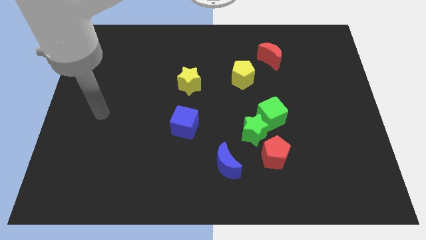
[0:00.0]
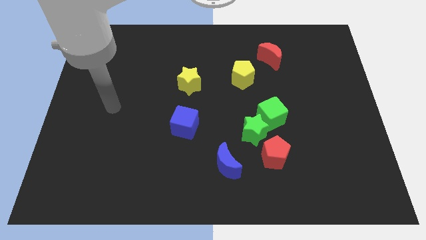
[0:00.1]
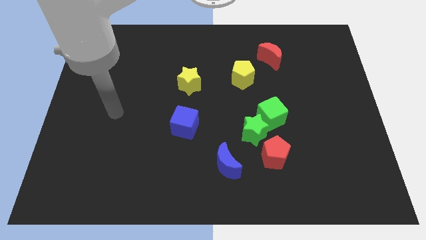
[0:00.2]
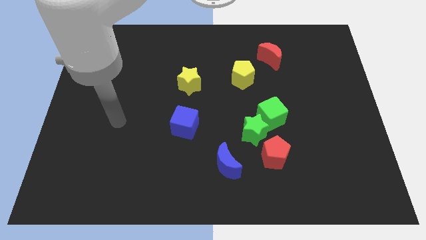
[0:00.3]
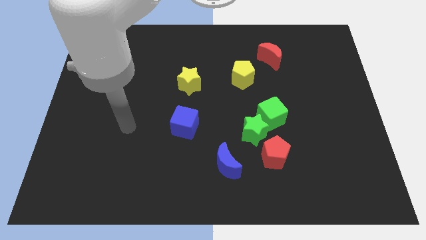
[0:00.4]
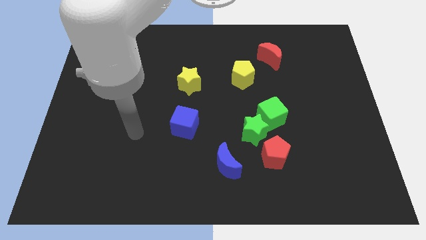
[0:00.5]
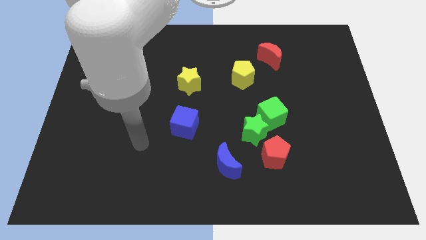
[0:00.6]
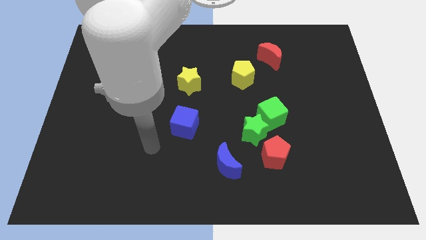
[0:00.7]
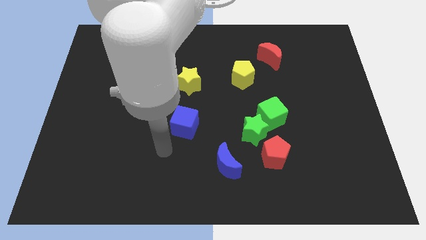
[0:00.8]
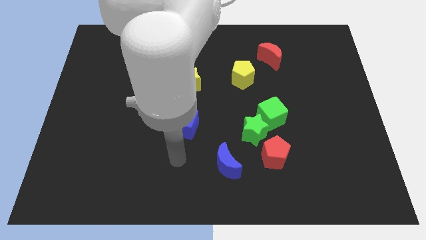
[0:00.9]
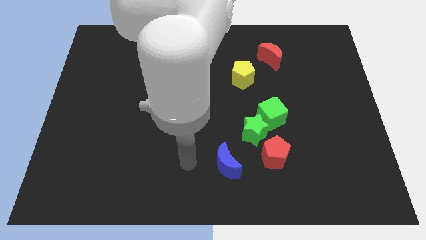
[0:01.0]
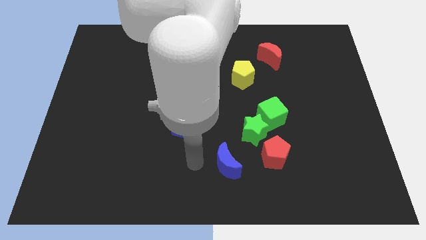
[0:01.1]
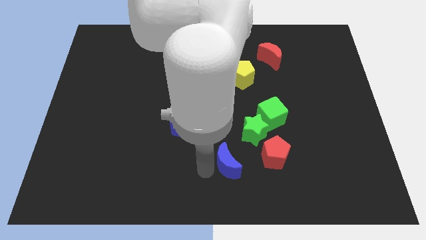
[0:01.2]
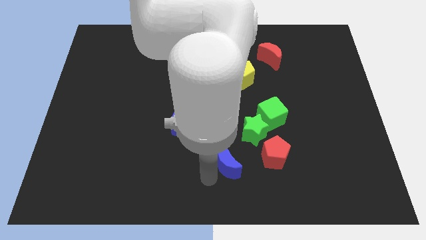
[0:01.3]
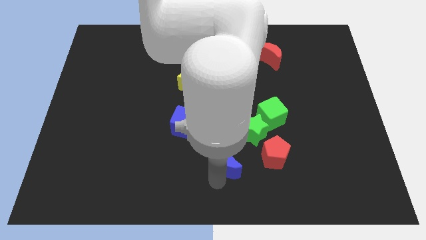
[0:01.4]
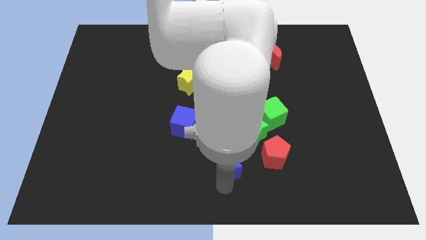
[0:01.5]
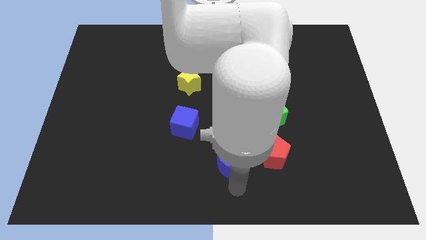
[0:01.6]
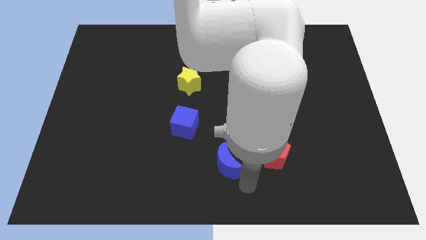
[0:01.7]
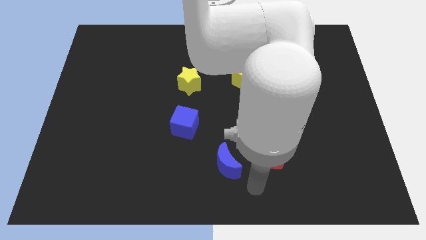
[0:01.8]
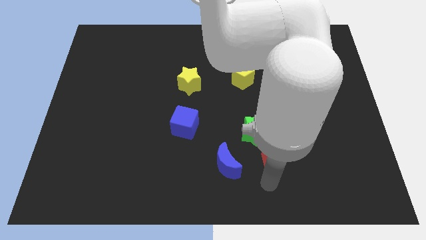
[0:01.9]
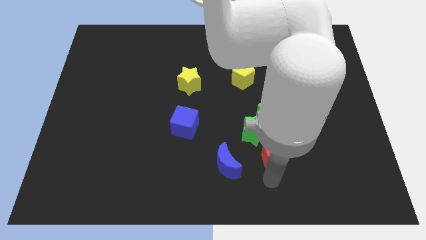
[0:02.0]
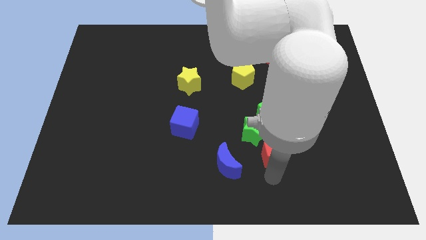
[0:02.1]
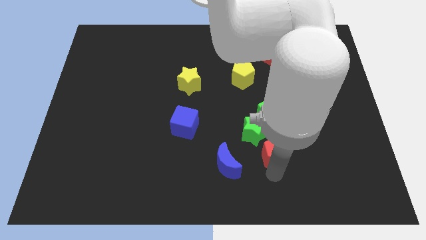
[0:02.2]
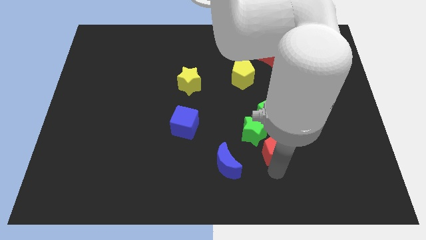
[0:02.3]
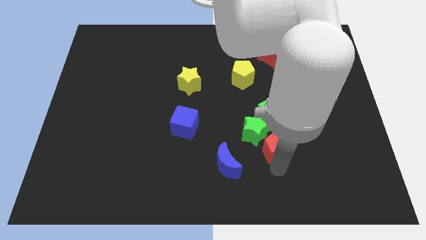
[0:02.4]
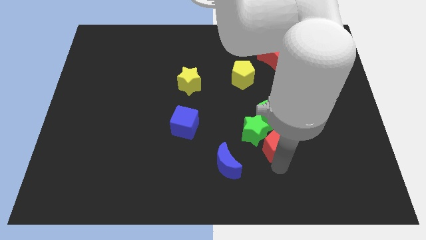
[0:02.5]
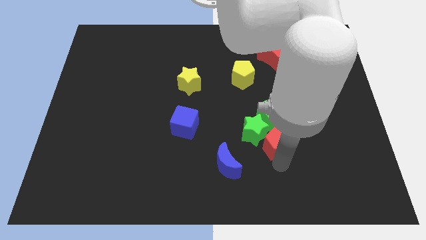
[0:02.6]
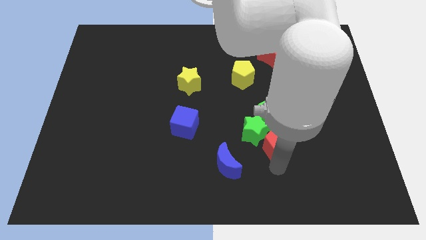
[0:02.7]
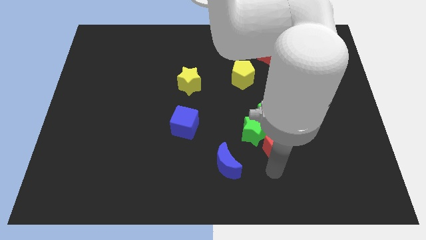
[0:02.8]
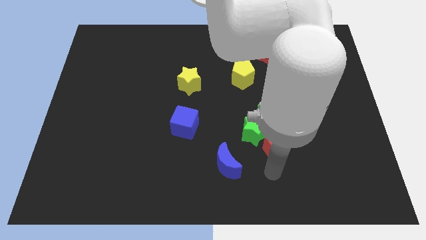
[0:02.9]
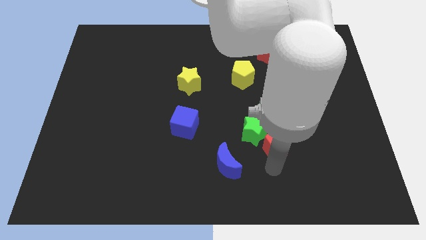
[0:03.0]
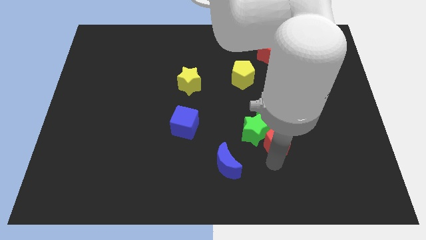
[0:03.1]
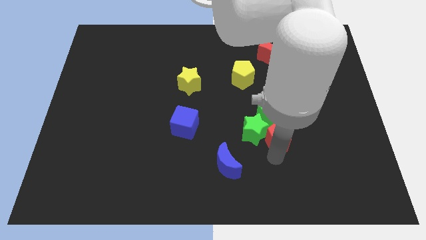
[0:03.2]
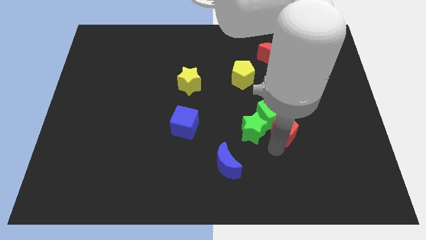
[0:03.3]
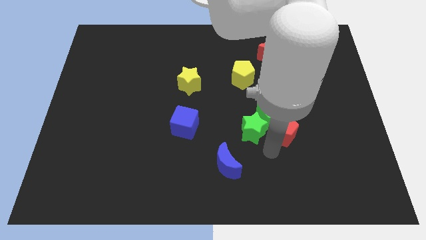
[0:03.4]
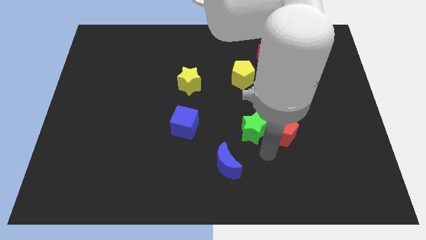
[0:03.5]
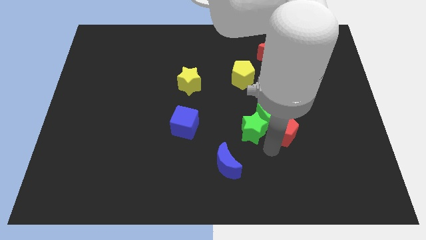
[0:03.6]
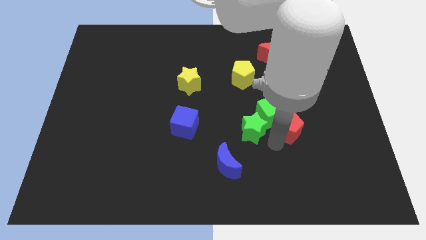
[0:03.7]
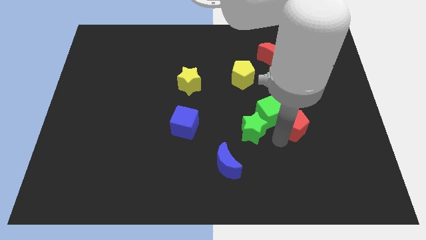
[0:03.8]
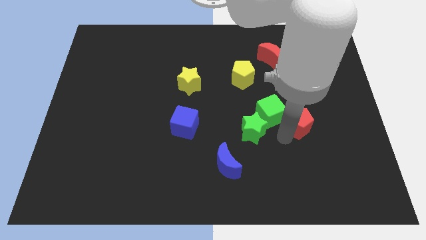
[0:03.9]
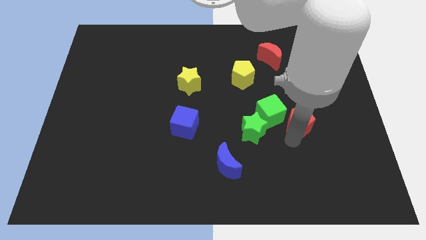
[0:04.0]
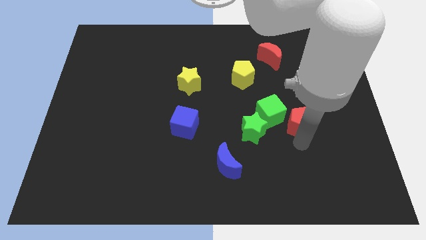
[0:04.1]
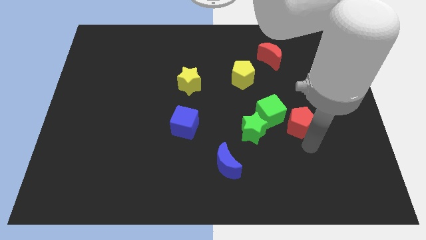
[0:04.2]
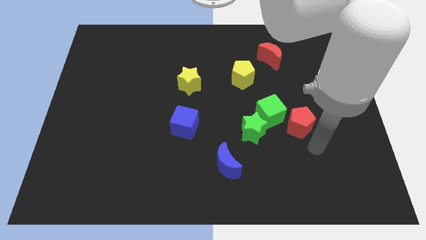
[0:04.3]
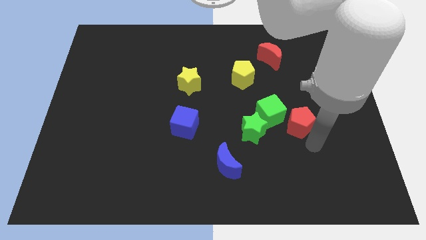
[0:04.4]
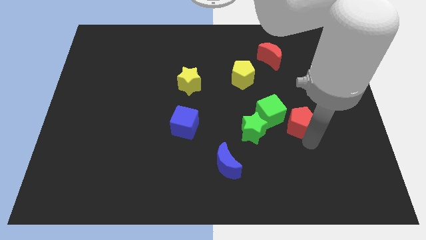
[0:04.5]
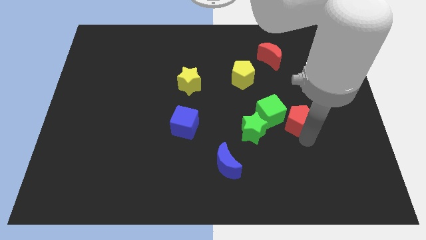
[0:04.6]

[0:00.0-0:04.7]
slightly move the red pentagon up

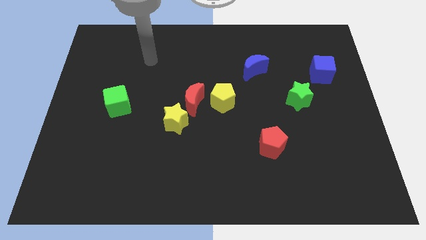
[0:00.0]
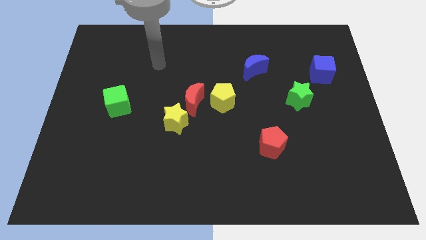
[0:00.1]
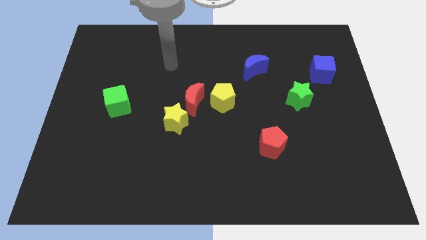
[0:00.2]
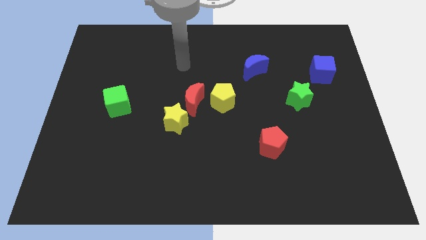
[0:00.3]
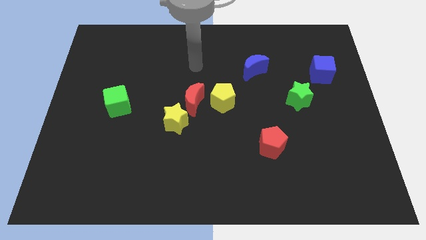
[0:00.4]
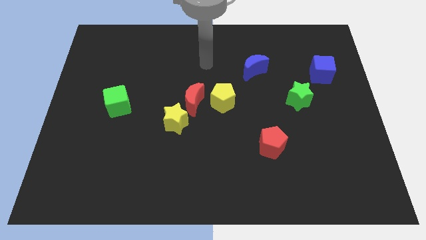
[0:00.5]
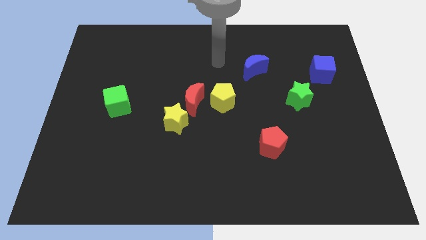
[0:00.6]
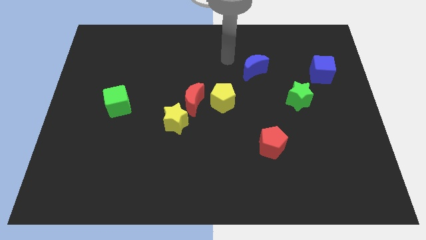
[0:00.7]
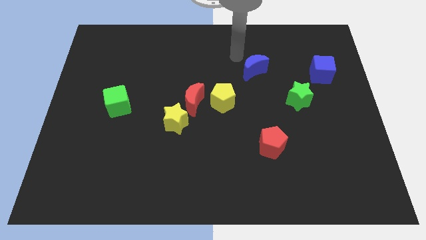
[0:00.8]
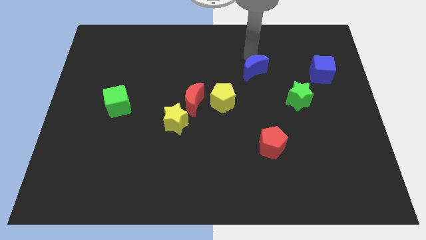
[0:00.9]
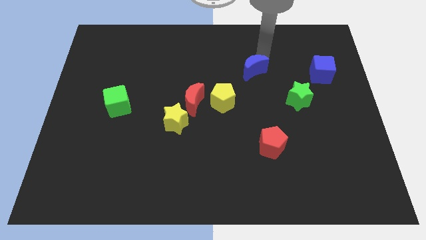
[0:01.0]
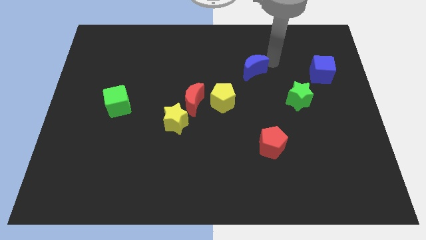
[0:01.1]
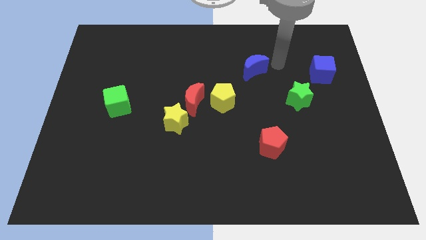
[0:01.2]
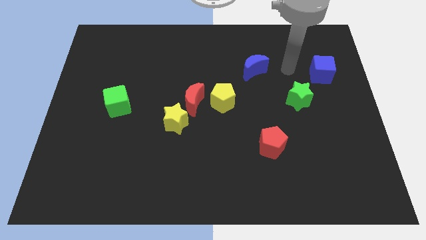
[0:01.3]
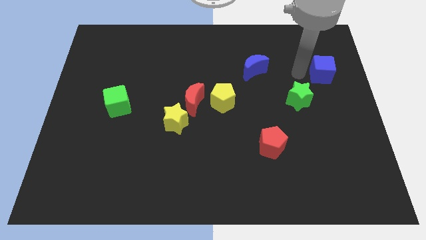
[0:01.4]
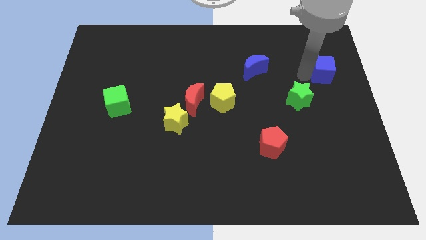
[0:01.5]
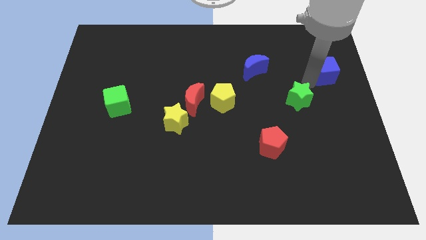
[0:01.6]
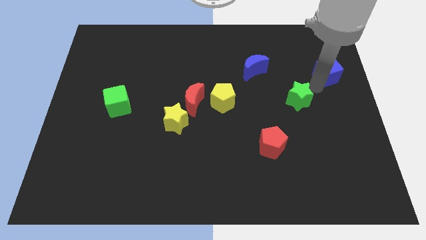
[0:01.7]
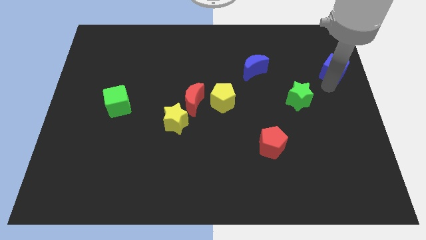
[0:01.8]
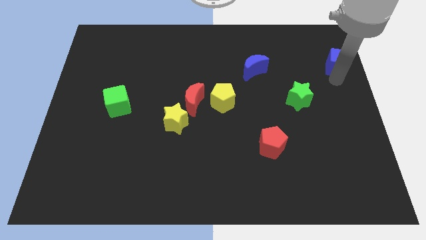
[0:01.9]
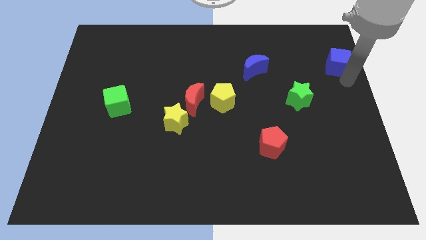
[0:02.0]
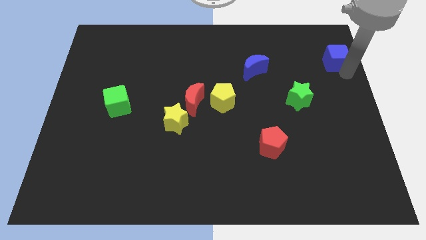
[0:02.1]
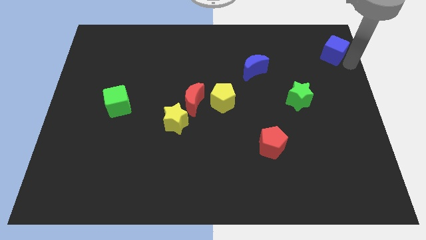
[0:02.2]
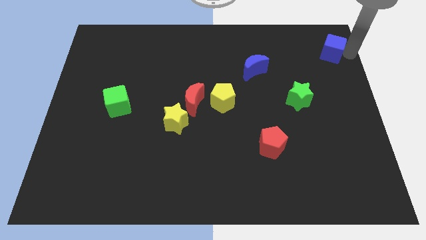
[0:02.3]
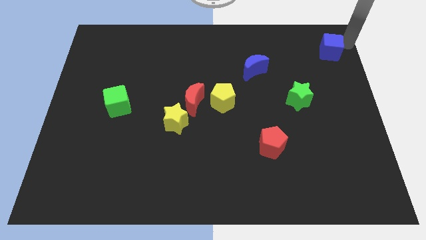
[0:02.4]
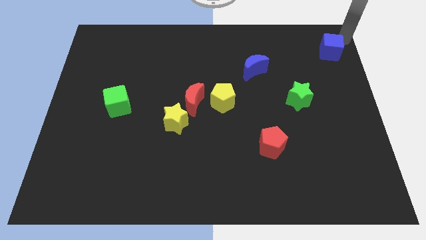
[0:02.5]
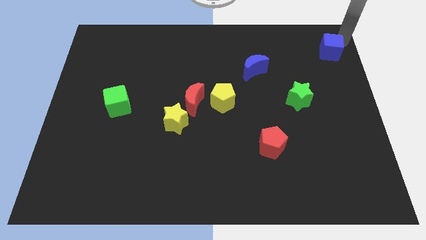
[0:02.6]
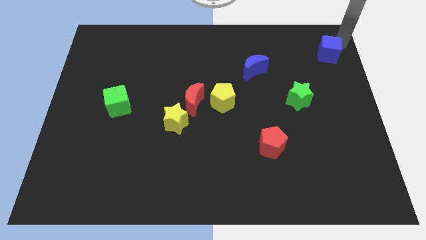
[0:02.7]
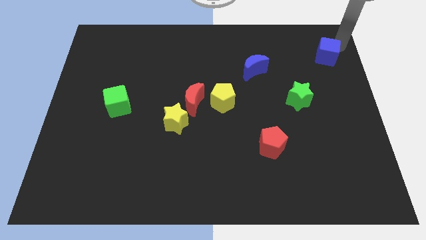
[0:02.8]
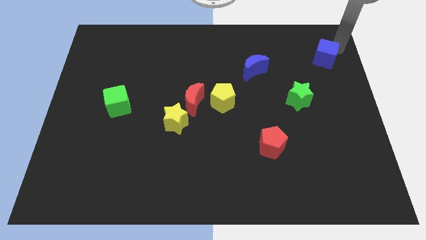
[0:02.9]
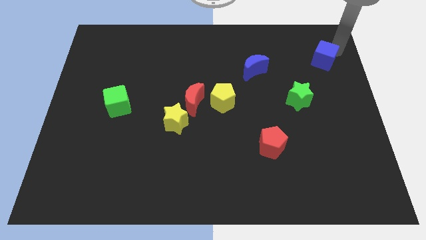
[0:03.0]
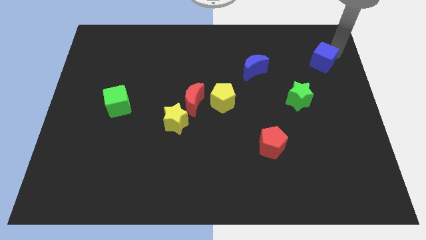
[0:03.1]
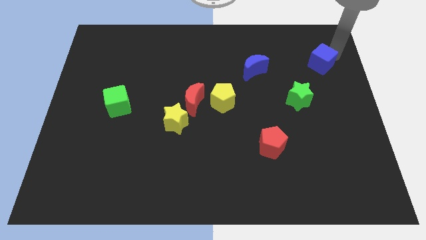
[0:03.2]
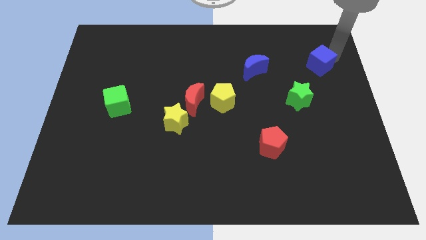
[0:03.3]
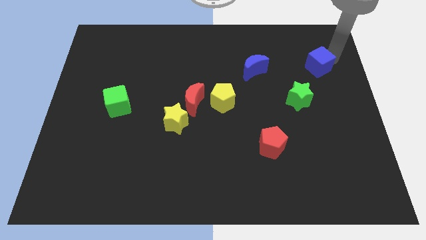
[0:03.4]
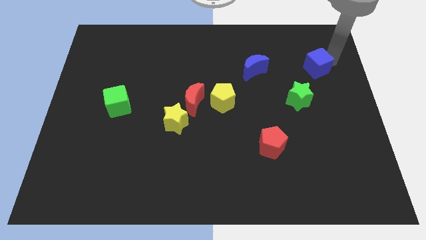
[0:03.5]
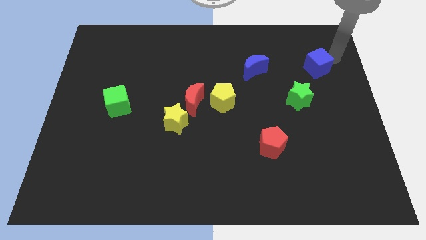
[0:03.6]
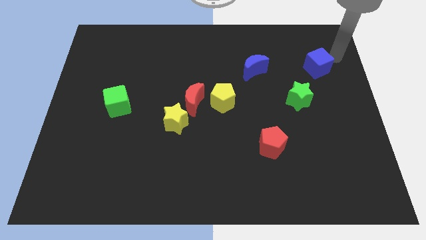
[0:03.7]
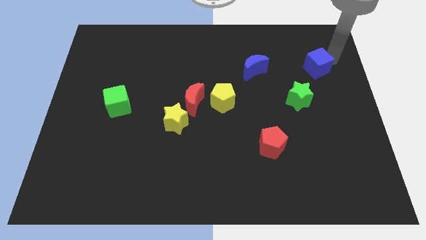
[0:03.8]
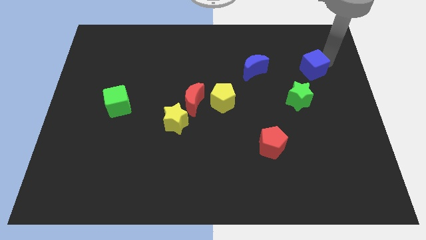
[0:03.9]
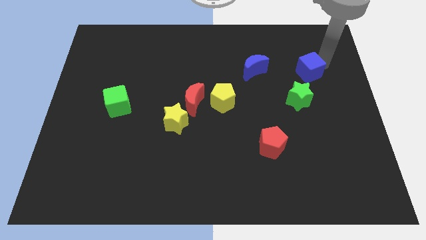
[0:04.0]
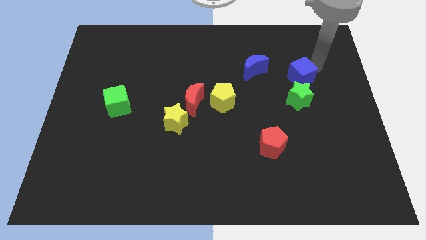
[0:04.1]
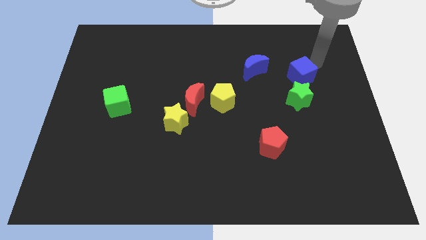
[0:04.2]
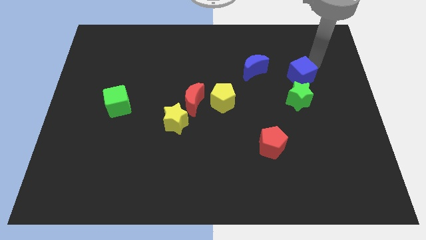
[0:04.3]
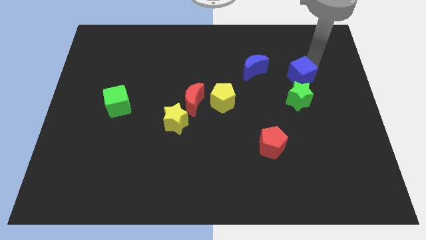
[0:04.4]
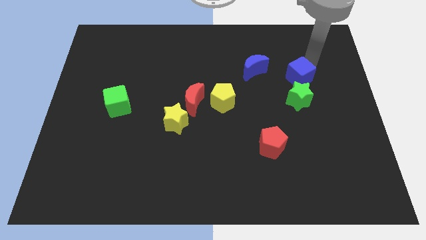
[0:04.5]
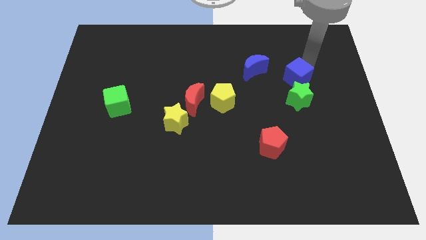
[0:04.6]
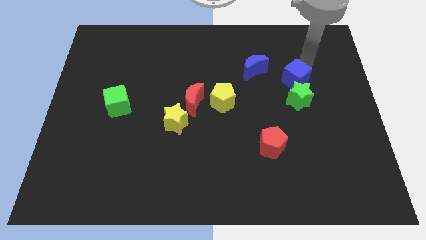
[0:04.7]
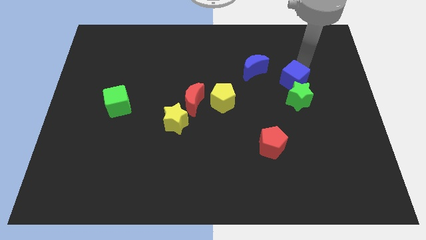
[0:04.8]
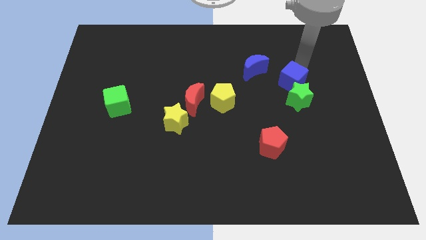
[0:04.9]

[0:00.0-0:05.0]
slightly move the blue cube downwards and left diagonally
